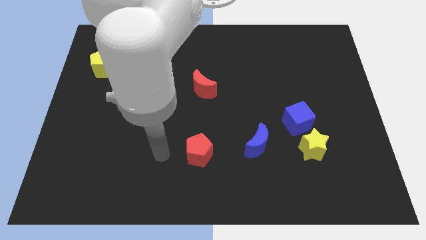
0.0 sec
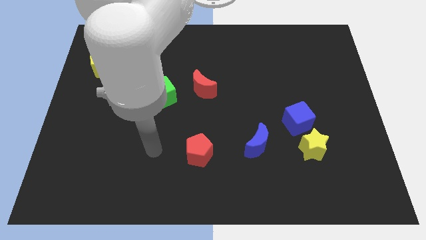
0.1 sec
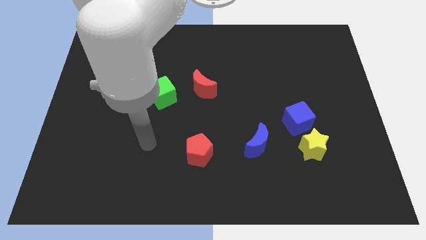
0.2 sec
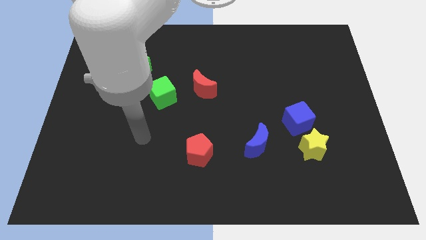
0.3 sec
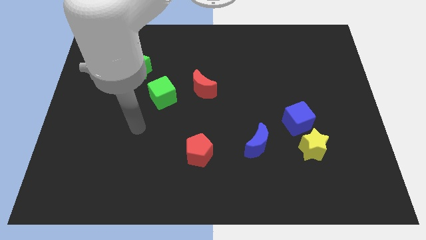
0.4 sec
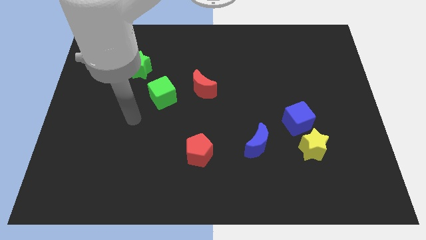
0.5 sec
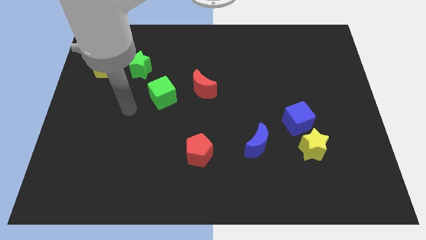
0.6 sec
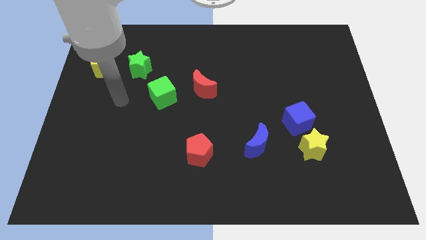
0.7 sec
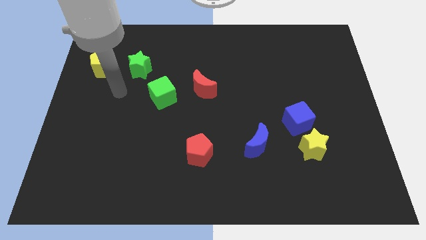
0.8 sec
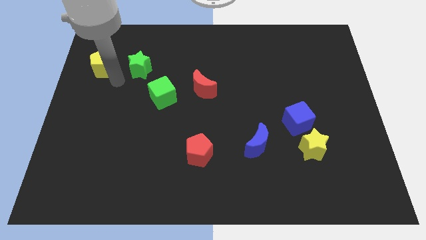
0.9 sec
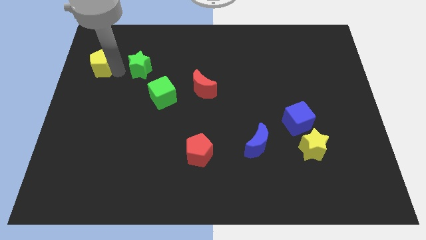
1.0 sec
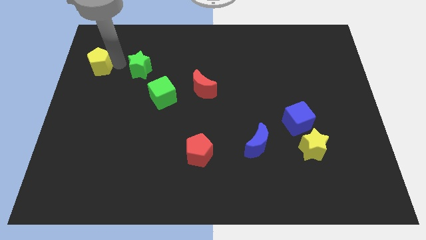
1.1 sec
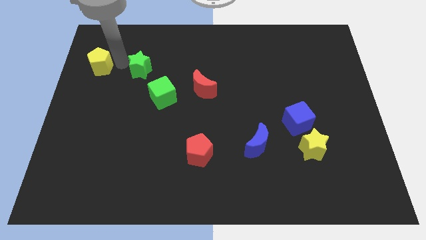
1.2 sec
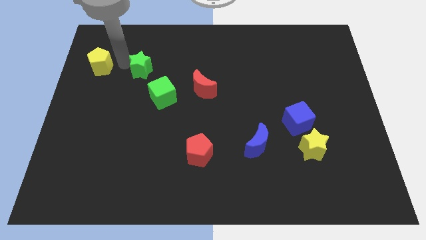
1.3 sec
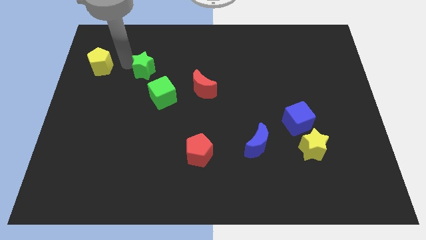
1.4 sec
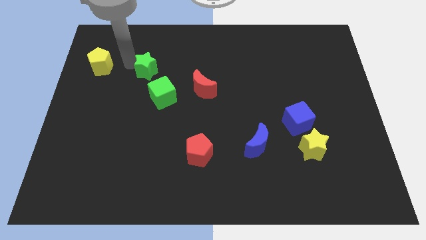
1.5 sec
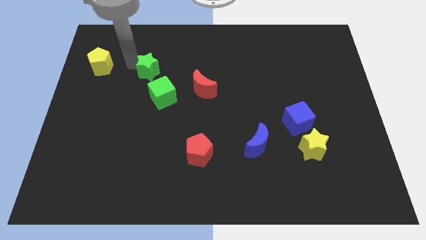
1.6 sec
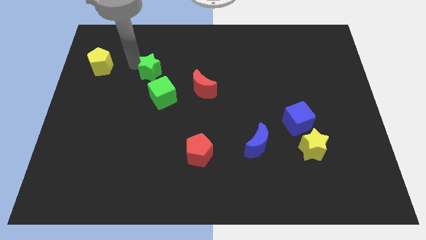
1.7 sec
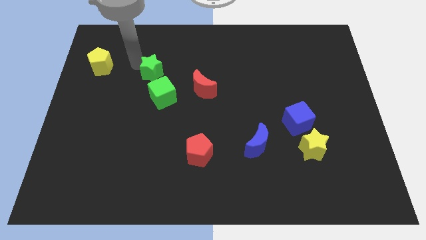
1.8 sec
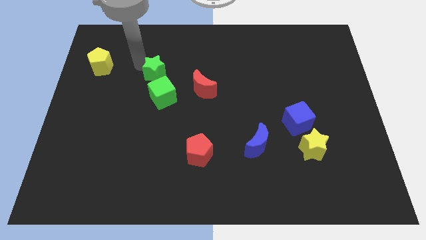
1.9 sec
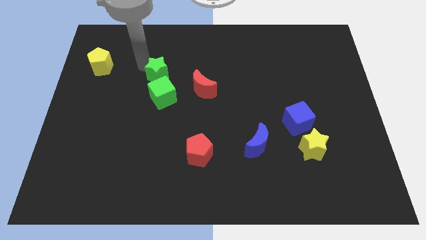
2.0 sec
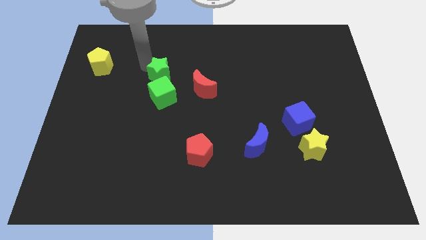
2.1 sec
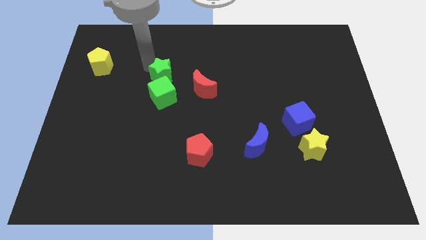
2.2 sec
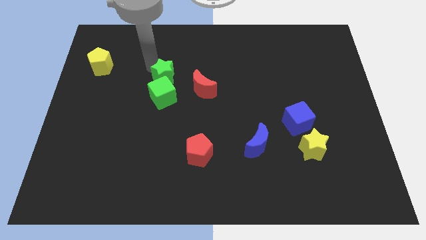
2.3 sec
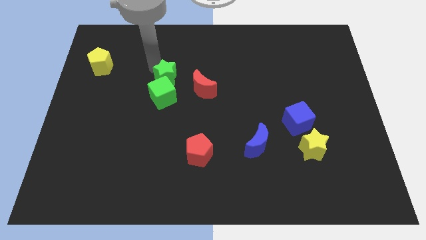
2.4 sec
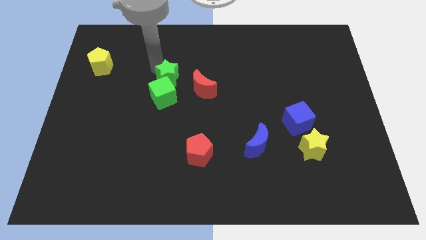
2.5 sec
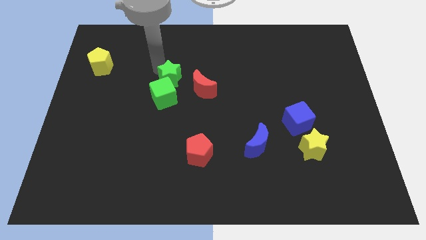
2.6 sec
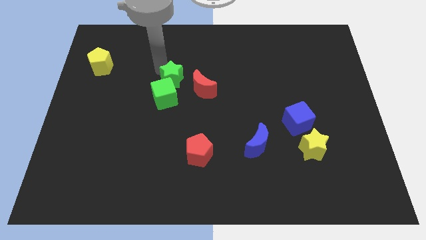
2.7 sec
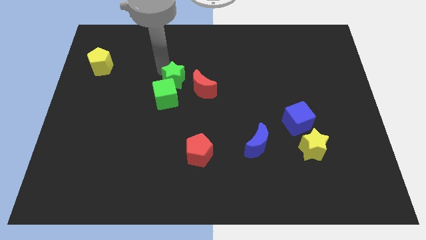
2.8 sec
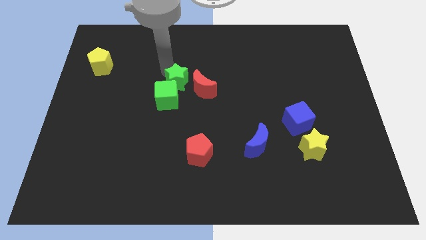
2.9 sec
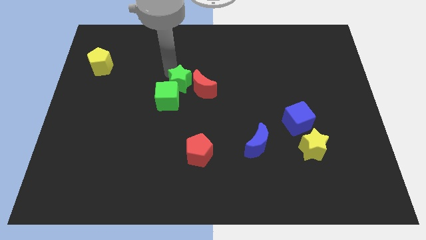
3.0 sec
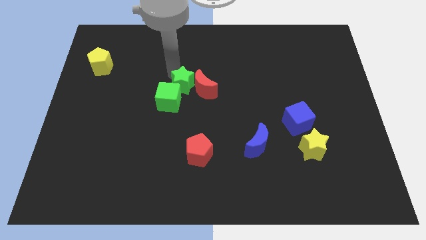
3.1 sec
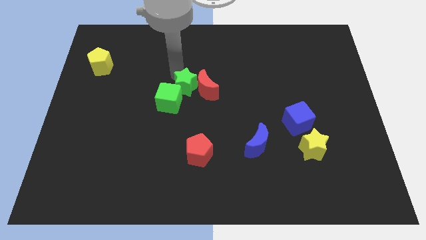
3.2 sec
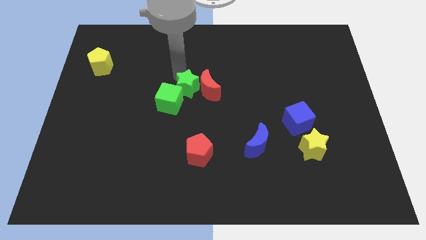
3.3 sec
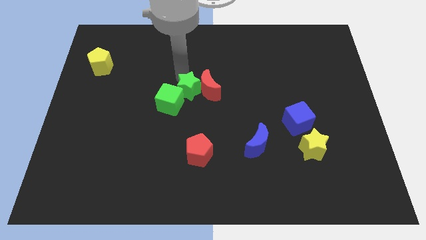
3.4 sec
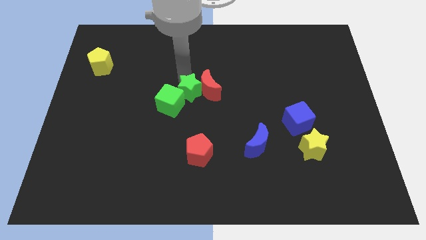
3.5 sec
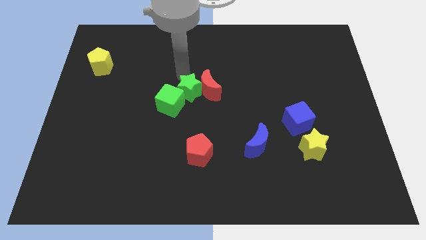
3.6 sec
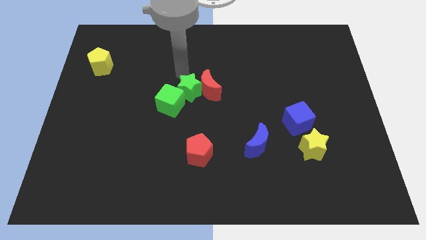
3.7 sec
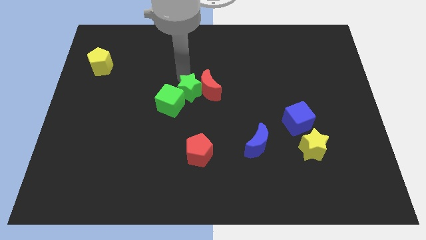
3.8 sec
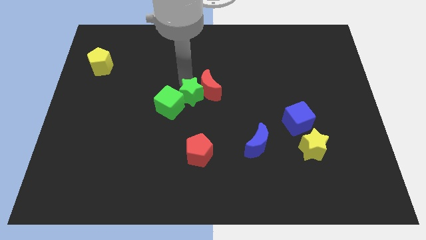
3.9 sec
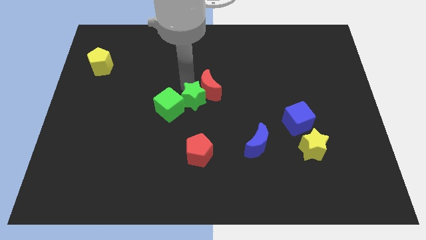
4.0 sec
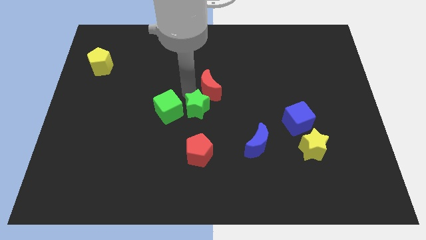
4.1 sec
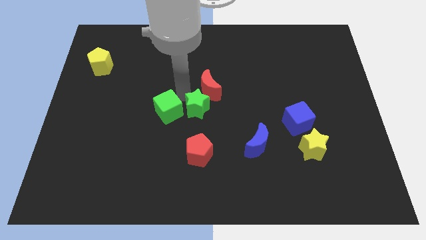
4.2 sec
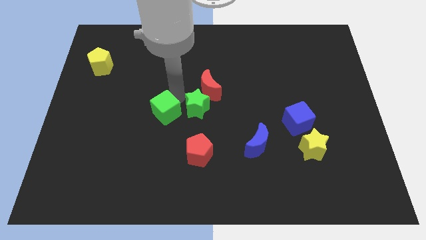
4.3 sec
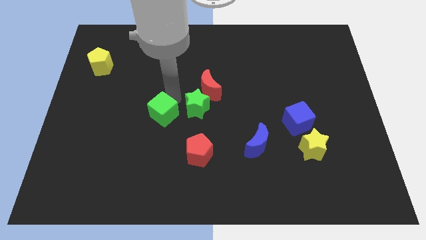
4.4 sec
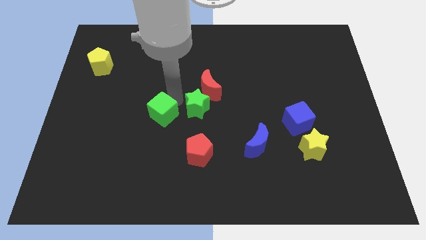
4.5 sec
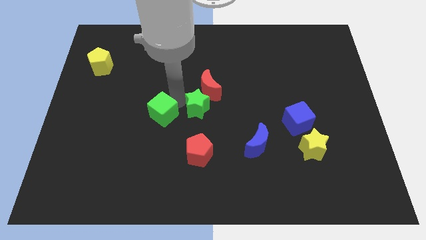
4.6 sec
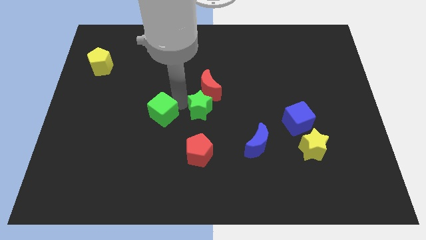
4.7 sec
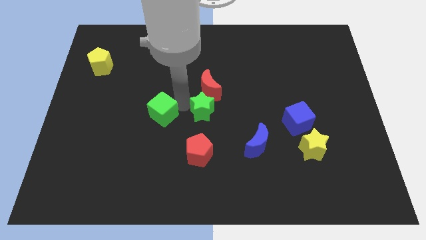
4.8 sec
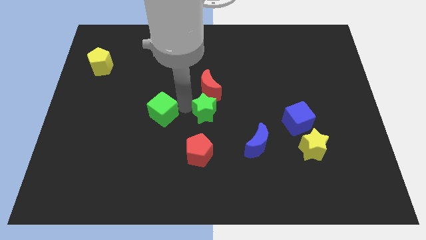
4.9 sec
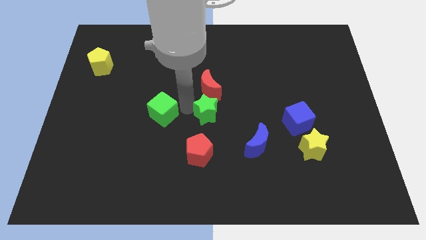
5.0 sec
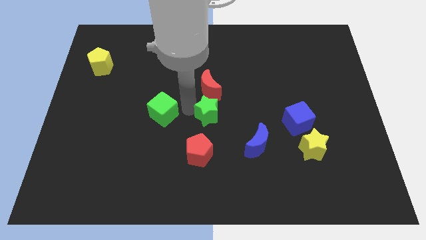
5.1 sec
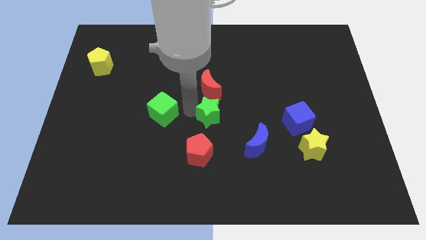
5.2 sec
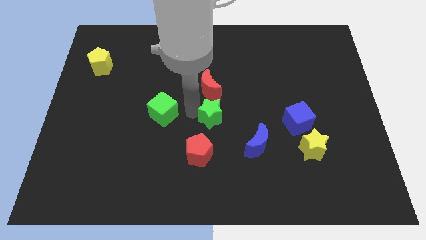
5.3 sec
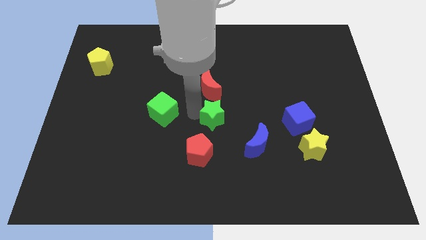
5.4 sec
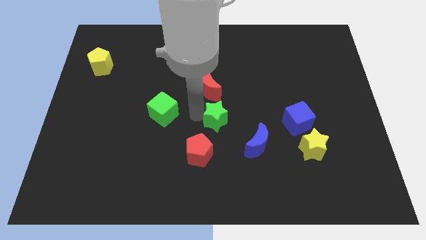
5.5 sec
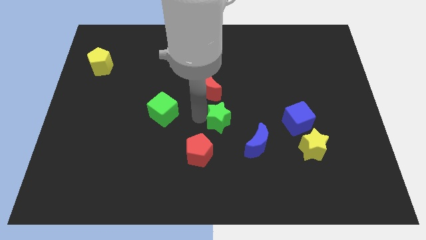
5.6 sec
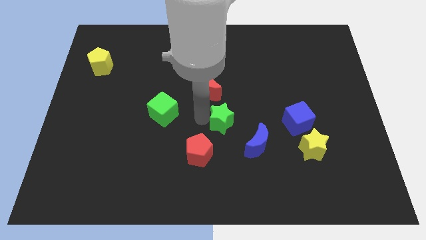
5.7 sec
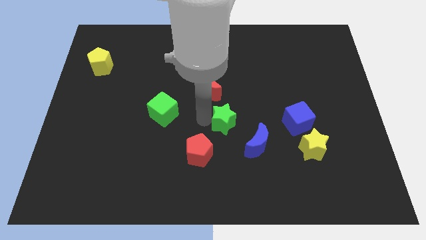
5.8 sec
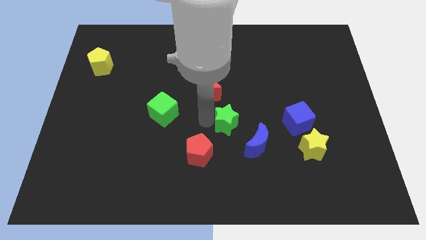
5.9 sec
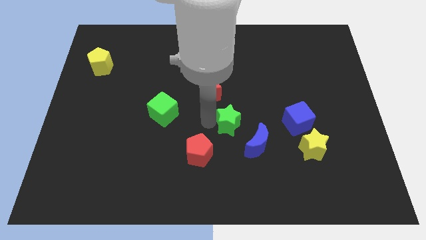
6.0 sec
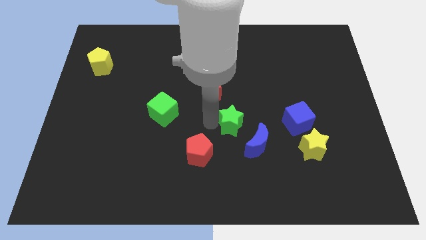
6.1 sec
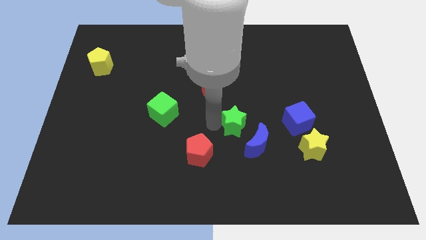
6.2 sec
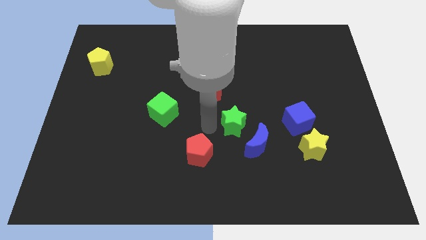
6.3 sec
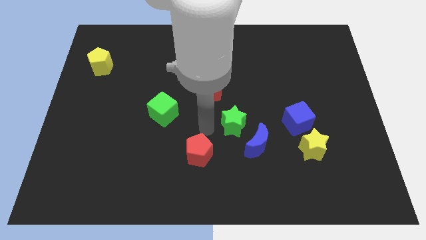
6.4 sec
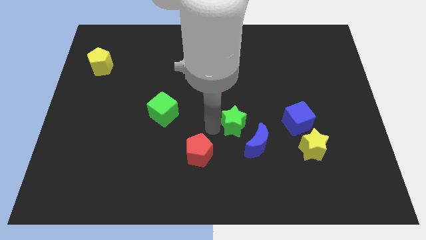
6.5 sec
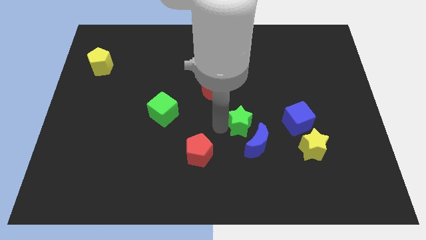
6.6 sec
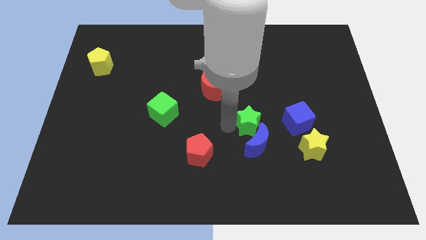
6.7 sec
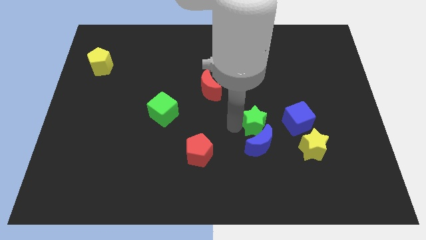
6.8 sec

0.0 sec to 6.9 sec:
move the green star diagonally up and to the right of the blue moon

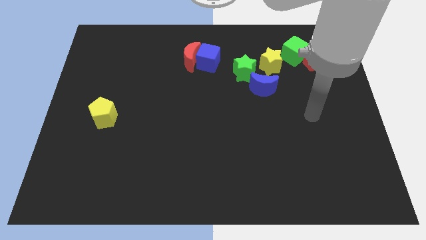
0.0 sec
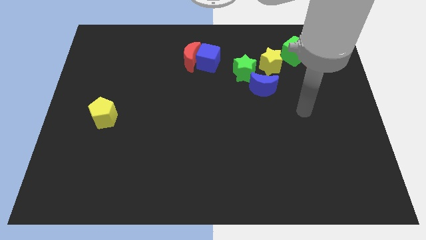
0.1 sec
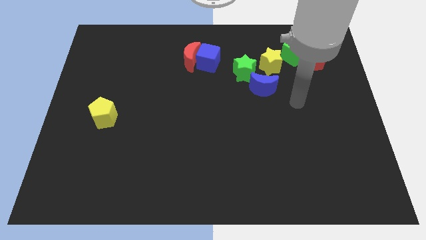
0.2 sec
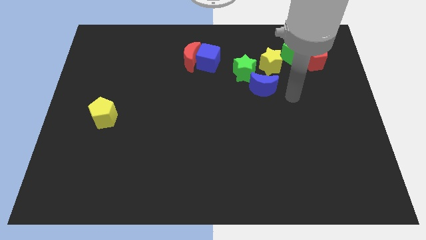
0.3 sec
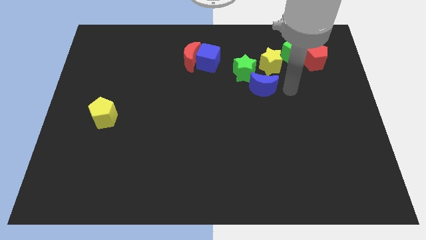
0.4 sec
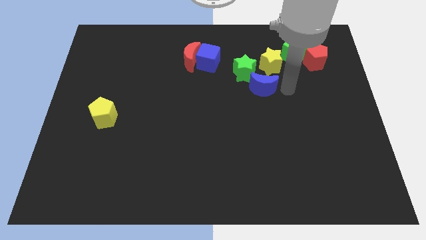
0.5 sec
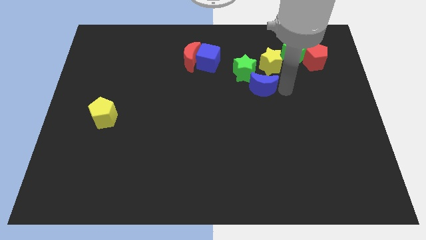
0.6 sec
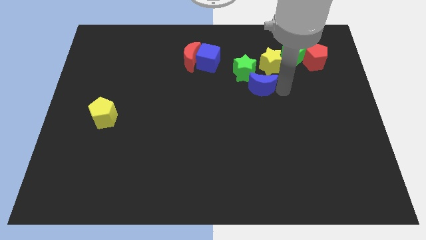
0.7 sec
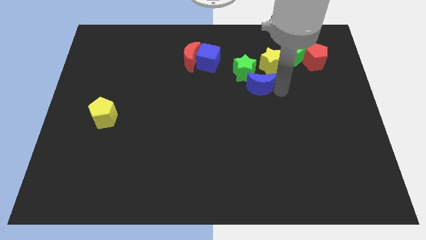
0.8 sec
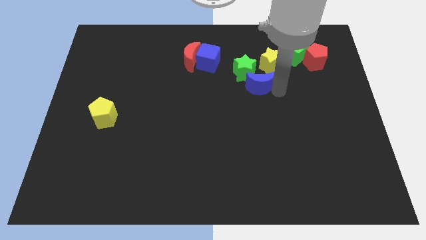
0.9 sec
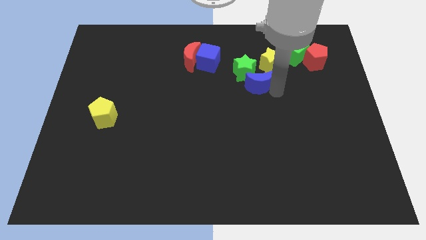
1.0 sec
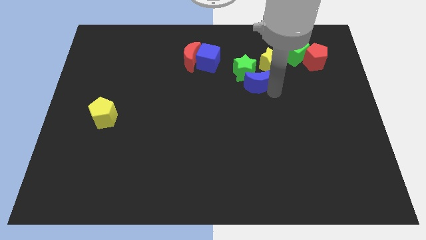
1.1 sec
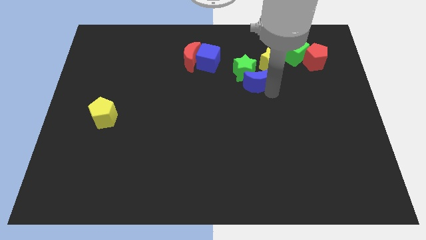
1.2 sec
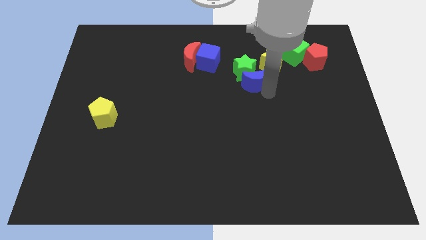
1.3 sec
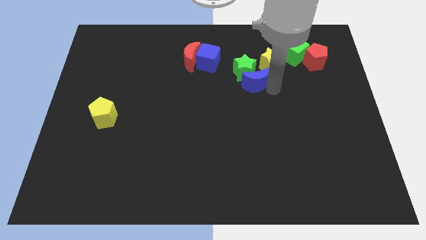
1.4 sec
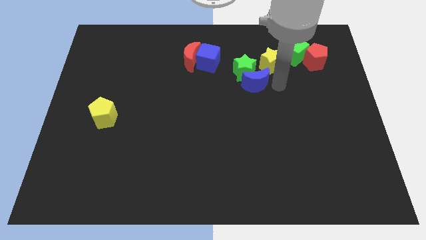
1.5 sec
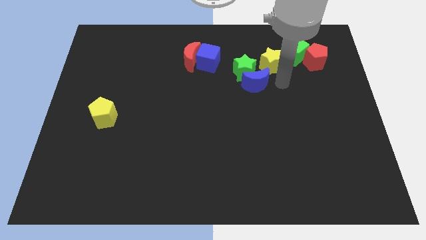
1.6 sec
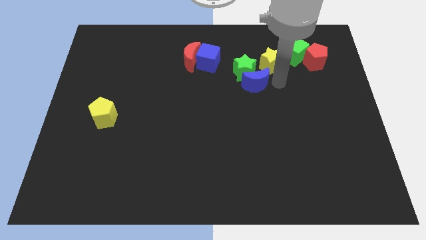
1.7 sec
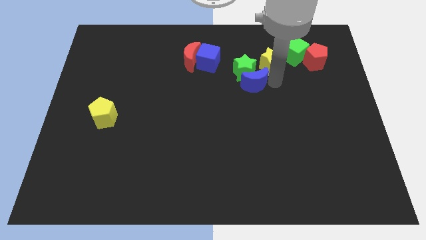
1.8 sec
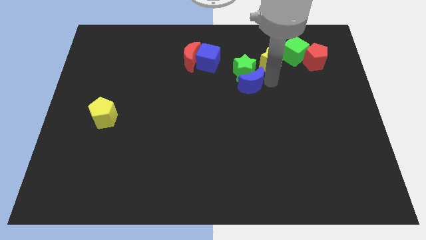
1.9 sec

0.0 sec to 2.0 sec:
push the blue moon to the bottom left of the green star
